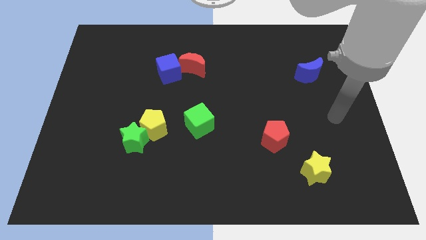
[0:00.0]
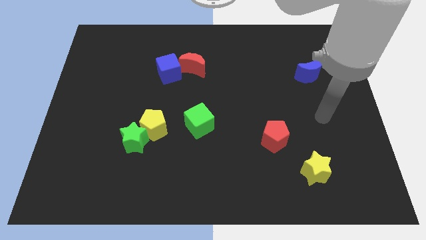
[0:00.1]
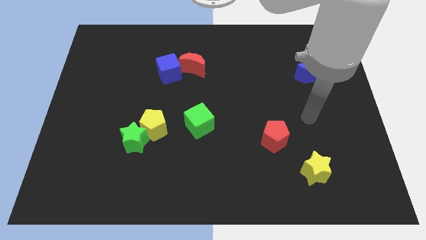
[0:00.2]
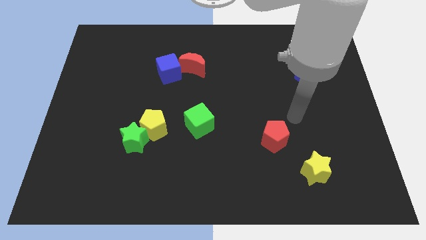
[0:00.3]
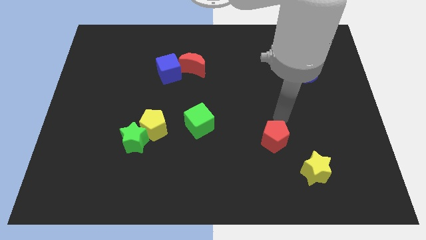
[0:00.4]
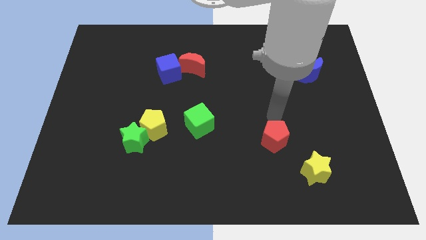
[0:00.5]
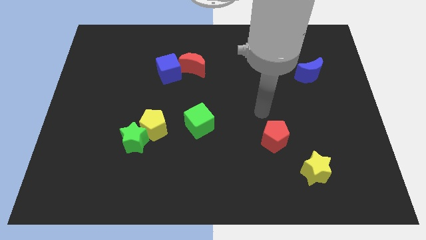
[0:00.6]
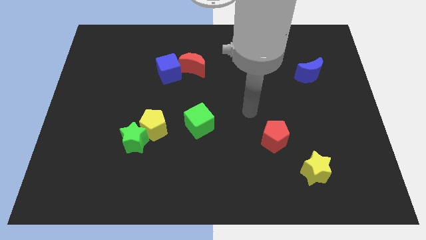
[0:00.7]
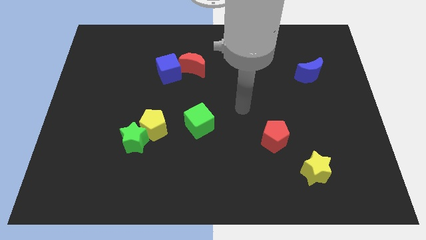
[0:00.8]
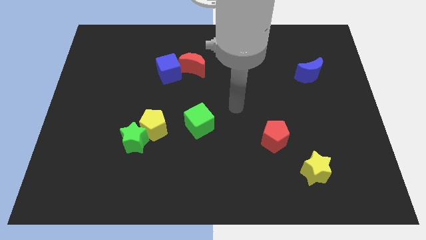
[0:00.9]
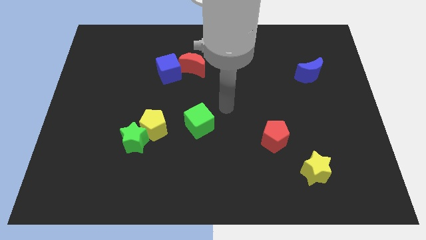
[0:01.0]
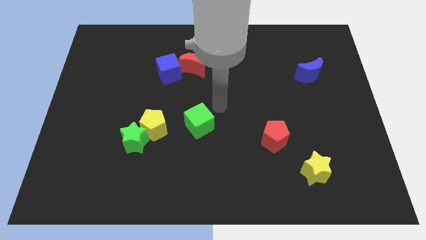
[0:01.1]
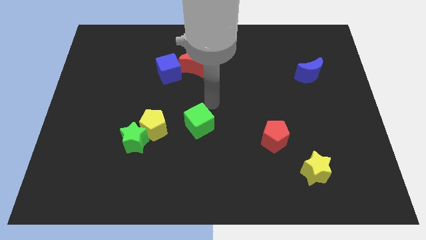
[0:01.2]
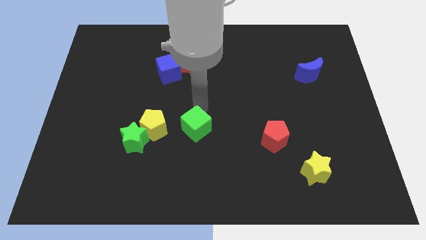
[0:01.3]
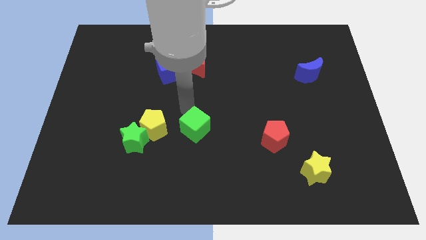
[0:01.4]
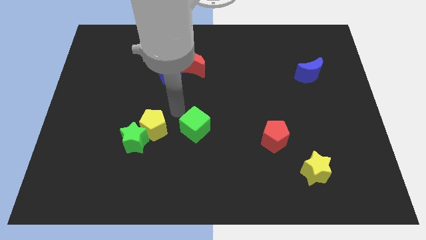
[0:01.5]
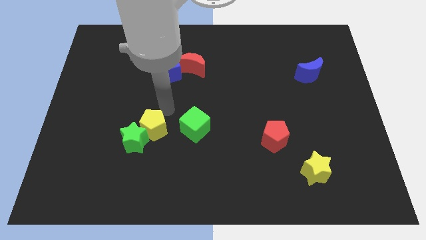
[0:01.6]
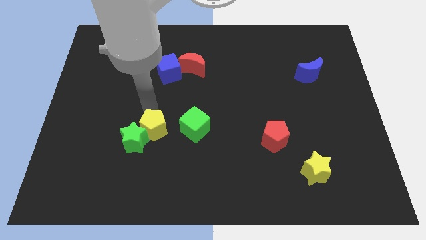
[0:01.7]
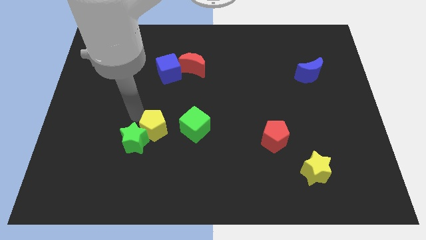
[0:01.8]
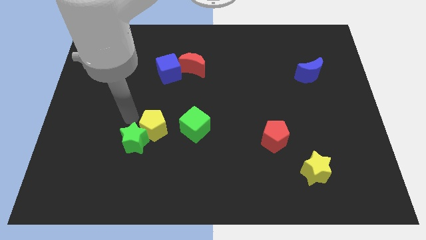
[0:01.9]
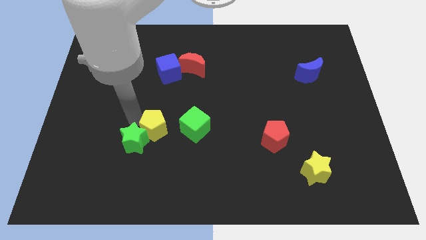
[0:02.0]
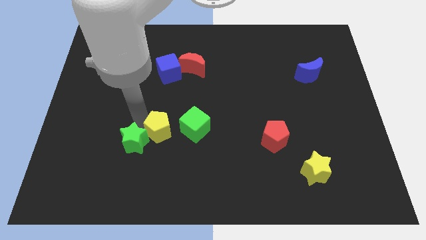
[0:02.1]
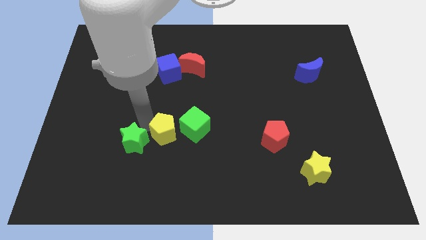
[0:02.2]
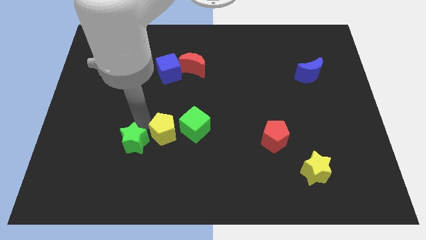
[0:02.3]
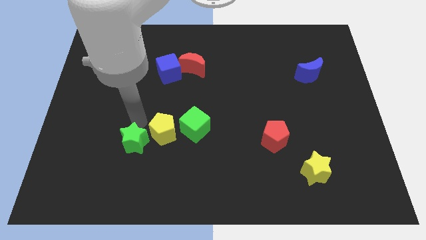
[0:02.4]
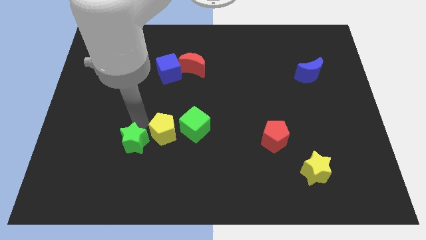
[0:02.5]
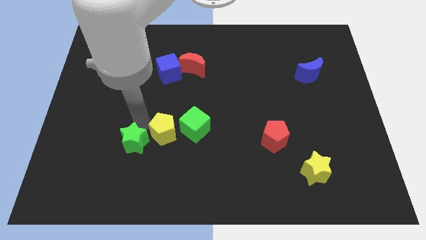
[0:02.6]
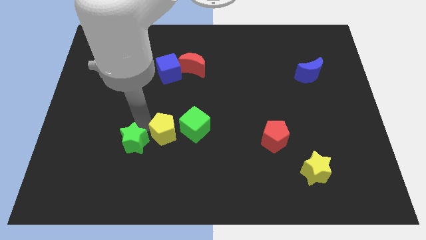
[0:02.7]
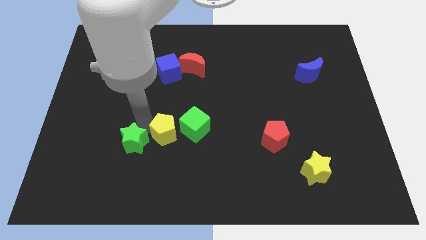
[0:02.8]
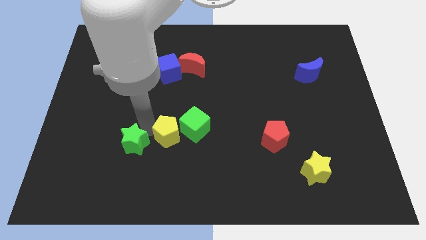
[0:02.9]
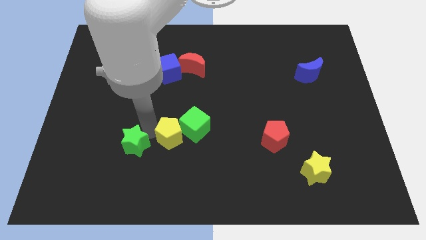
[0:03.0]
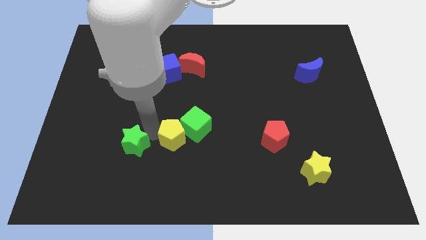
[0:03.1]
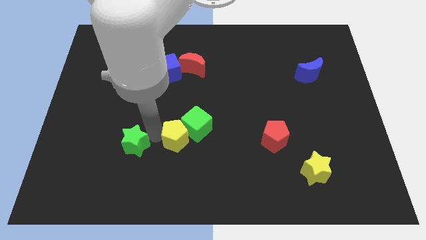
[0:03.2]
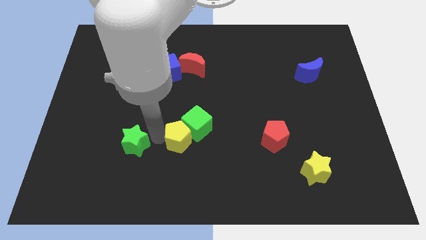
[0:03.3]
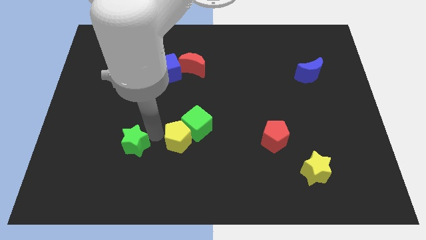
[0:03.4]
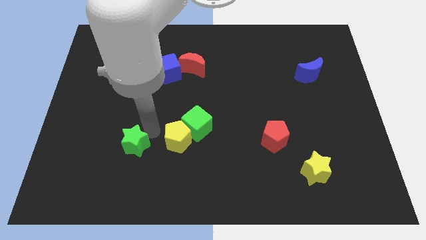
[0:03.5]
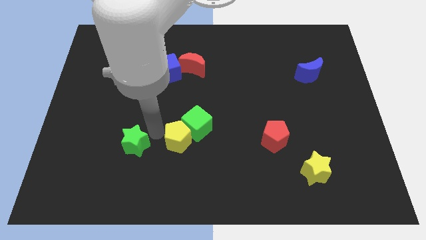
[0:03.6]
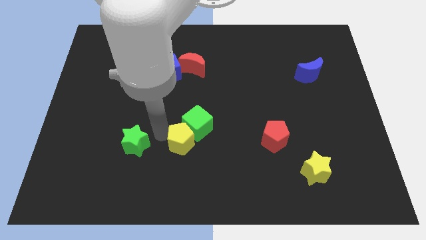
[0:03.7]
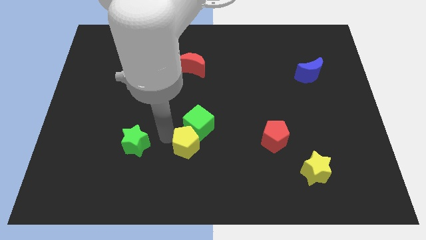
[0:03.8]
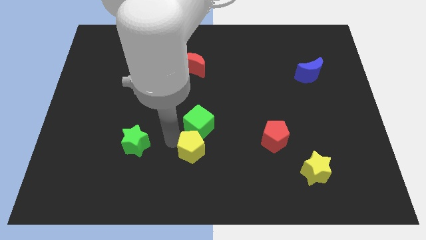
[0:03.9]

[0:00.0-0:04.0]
slide the yellow pentagon right a little

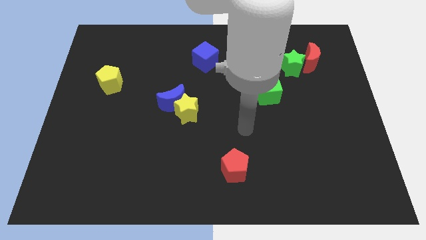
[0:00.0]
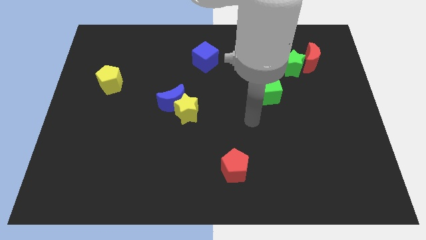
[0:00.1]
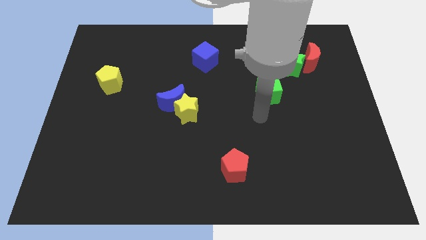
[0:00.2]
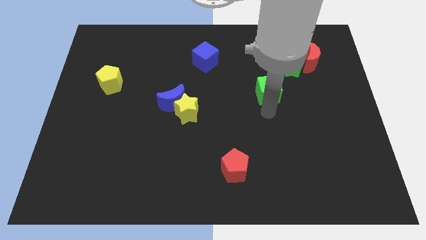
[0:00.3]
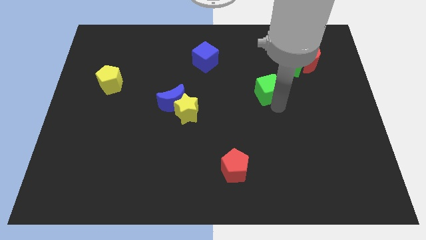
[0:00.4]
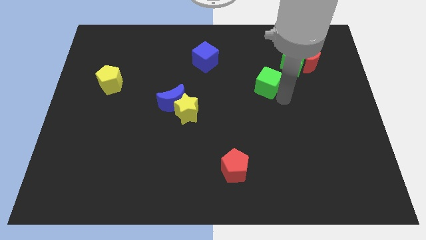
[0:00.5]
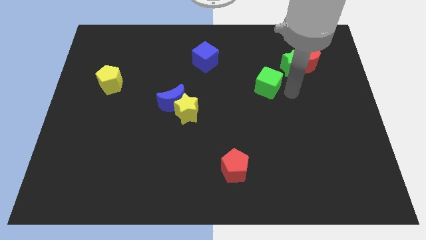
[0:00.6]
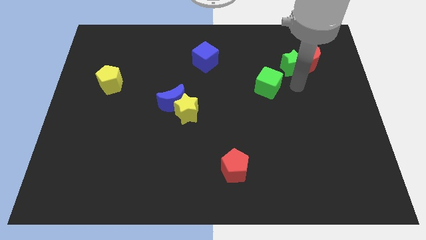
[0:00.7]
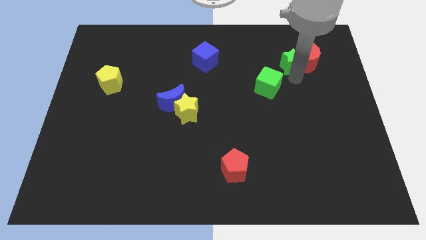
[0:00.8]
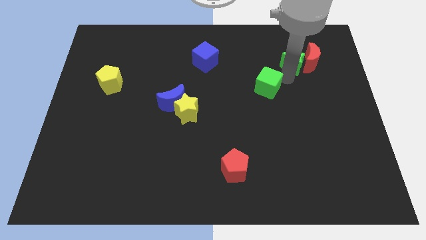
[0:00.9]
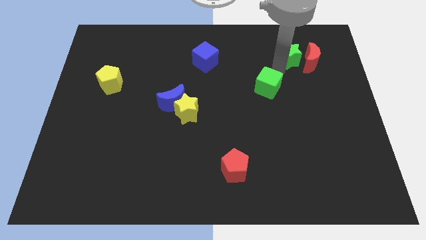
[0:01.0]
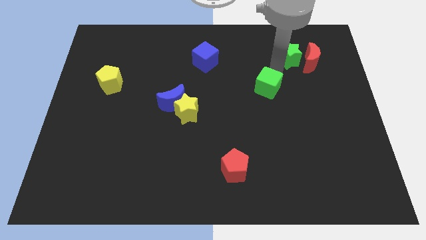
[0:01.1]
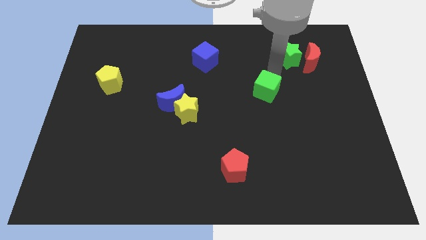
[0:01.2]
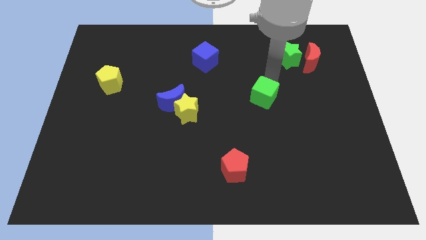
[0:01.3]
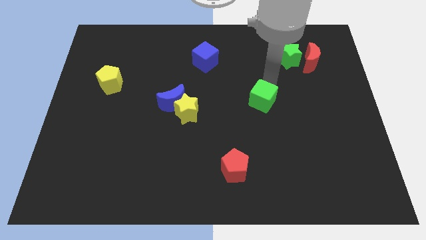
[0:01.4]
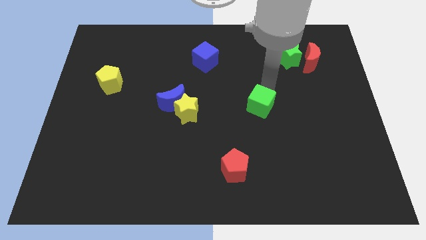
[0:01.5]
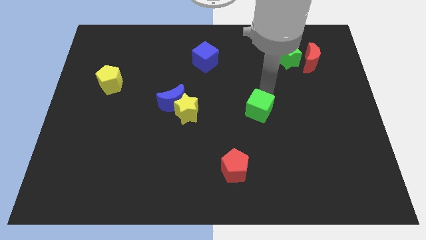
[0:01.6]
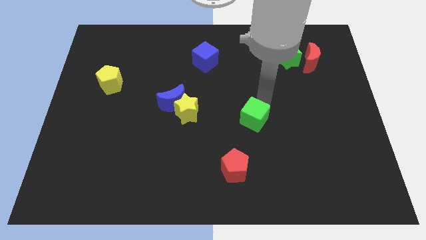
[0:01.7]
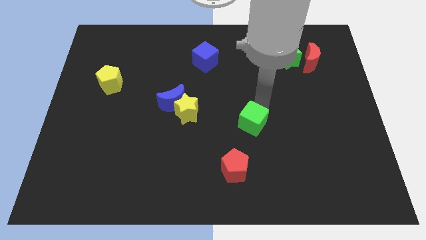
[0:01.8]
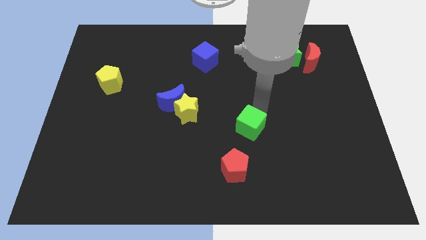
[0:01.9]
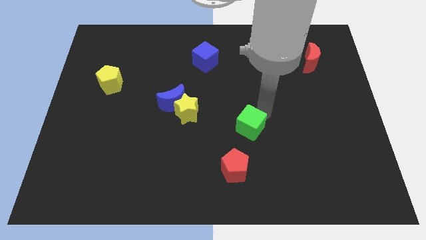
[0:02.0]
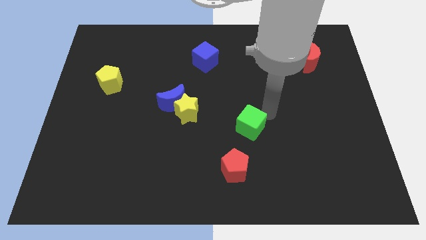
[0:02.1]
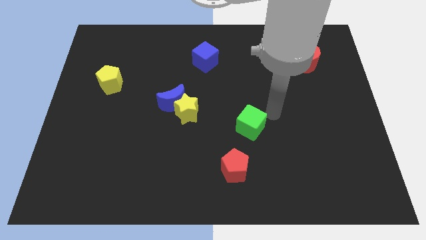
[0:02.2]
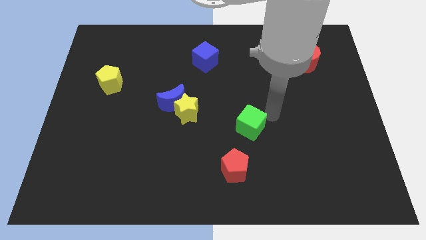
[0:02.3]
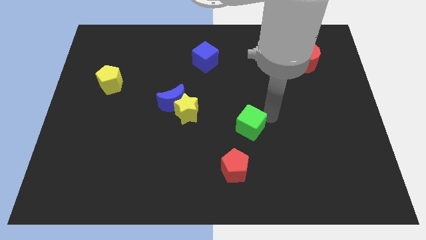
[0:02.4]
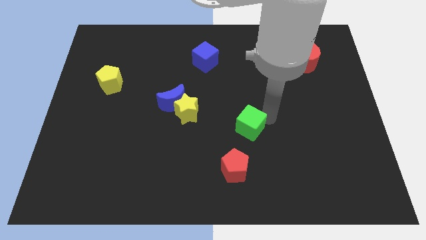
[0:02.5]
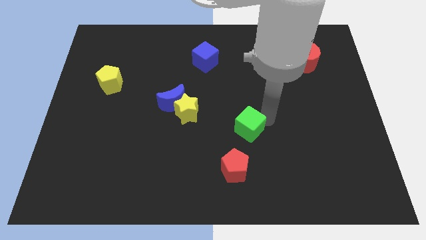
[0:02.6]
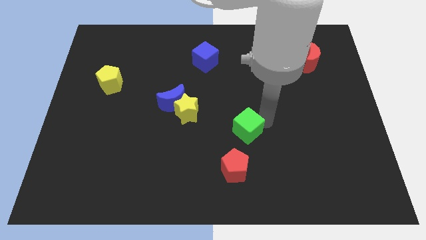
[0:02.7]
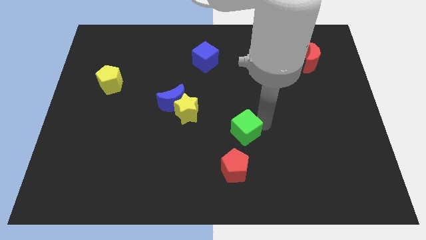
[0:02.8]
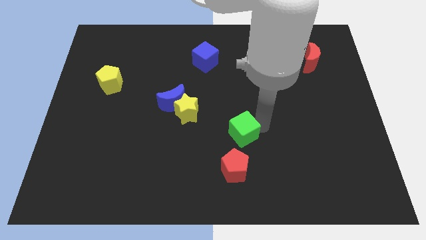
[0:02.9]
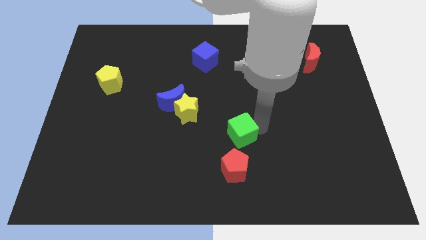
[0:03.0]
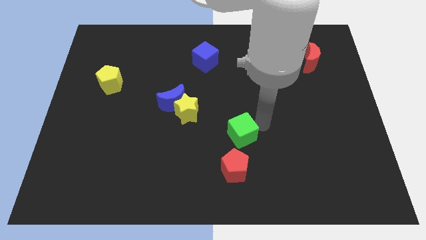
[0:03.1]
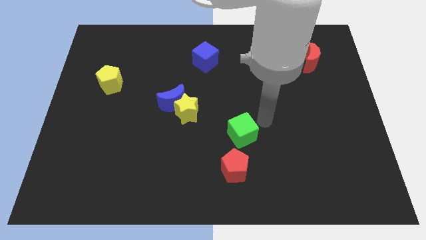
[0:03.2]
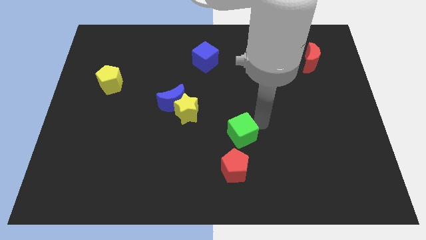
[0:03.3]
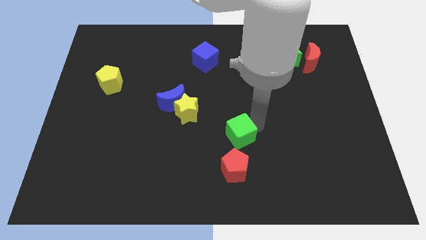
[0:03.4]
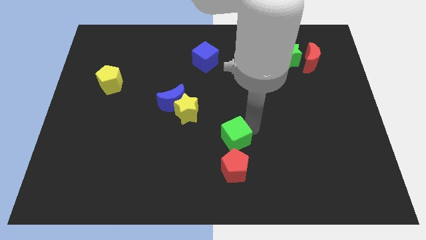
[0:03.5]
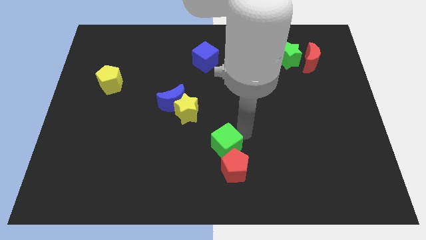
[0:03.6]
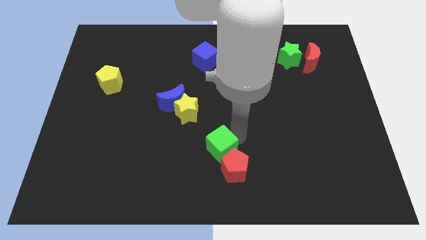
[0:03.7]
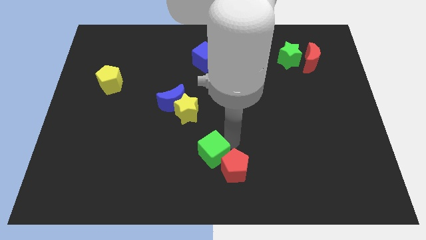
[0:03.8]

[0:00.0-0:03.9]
push the green cube down and left diagonally

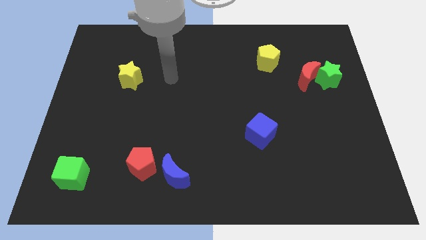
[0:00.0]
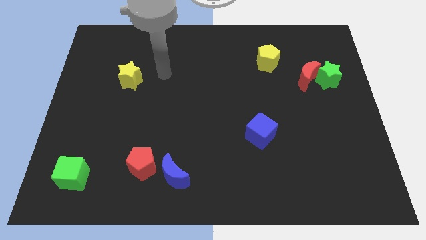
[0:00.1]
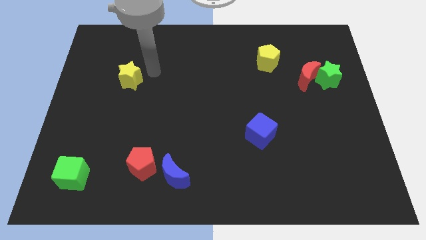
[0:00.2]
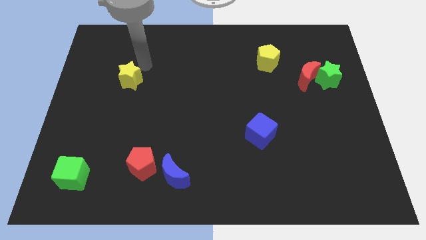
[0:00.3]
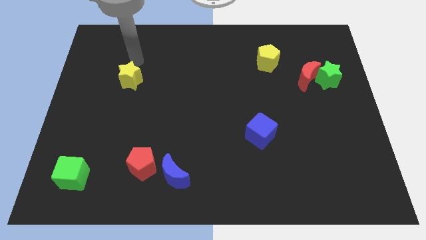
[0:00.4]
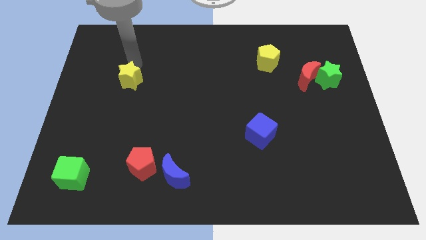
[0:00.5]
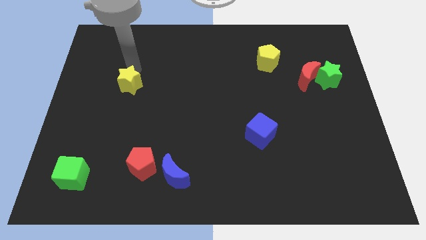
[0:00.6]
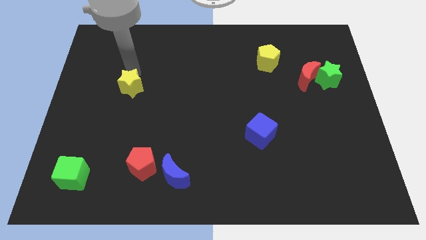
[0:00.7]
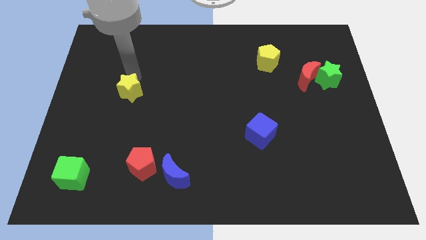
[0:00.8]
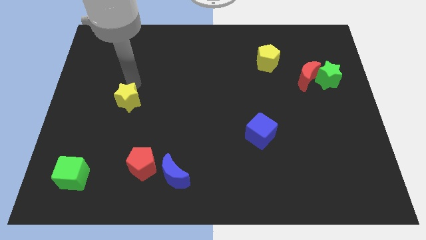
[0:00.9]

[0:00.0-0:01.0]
slide the yellow star downwards a bit

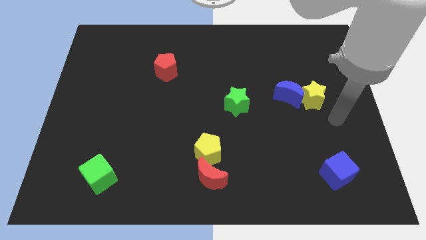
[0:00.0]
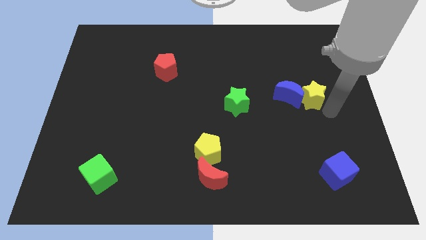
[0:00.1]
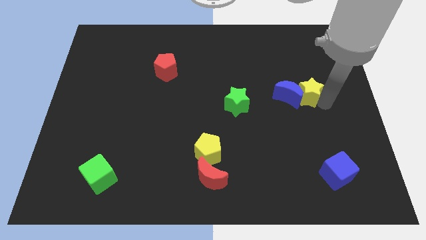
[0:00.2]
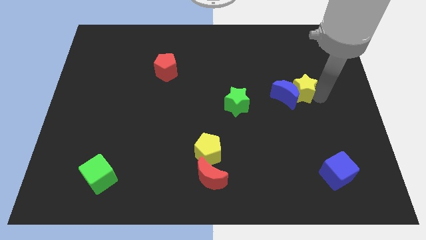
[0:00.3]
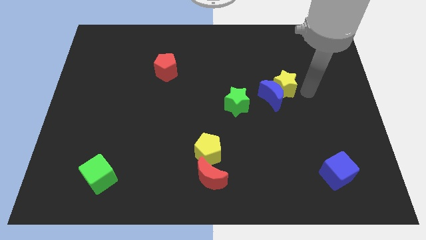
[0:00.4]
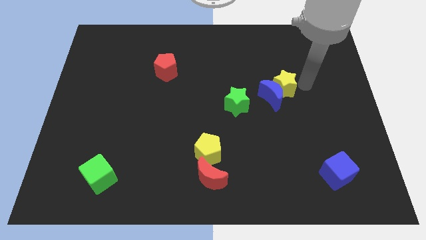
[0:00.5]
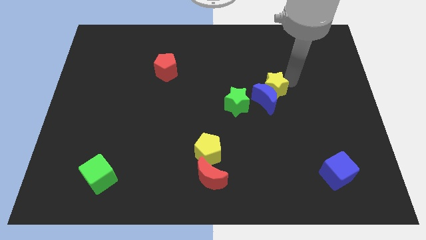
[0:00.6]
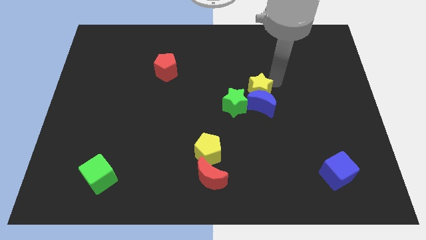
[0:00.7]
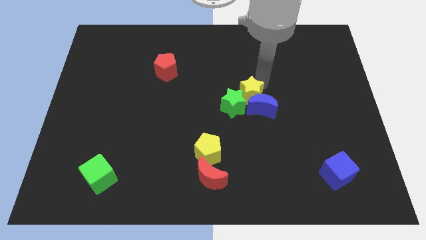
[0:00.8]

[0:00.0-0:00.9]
slightly push the blue moon down and then left
